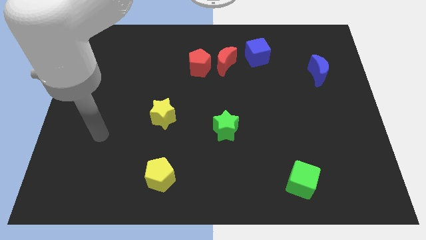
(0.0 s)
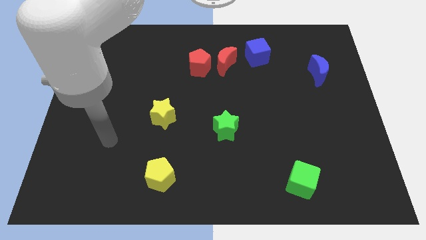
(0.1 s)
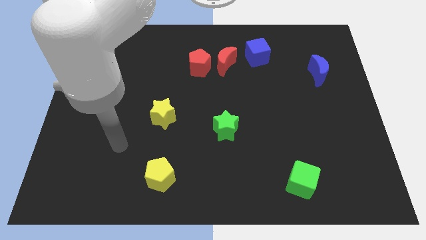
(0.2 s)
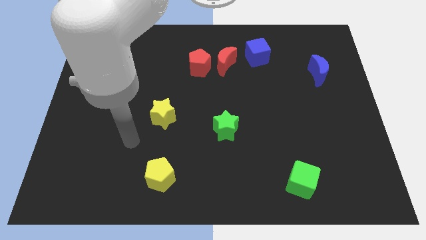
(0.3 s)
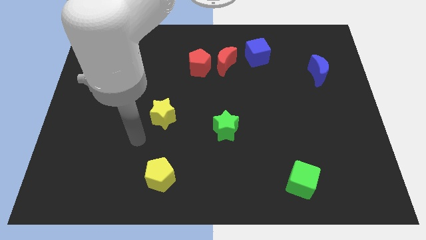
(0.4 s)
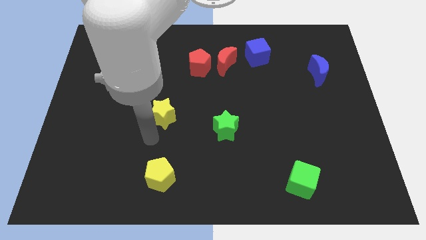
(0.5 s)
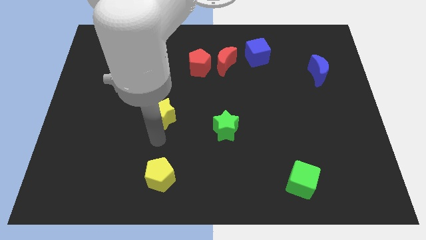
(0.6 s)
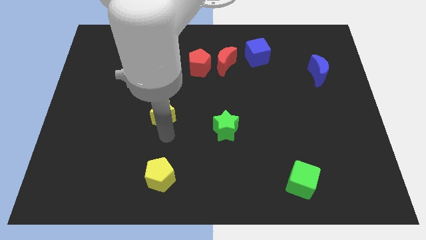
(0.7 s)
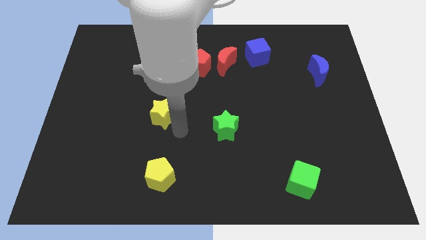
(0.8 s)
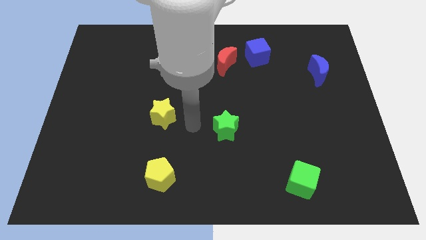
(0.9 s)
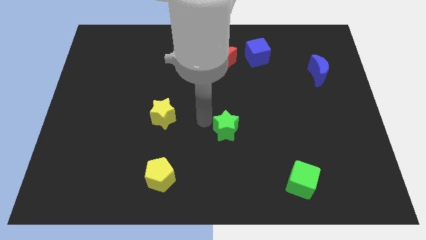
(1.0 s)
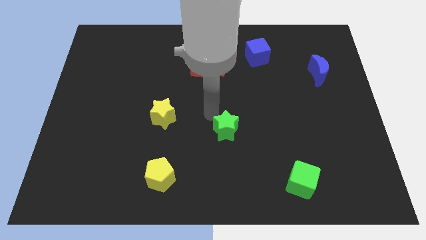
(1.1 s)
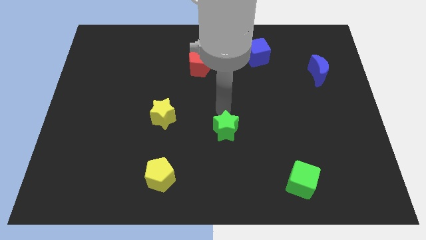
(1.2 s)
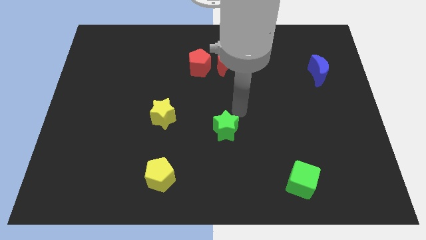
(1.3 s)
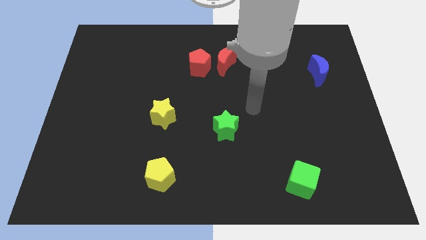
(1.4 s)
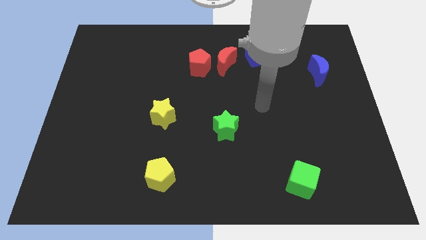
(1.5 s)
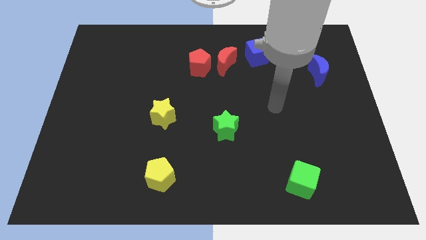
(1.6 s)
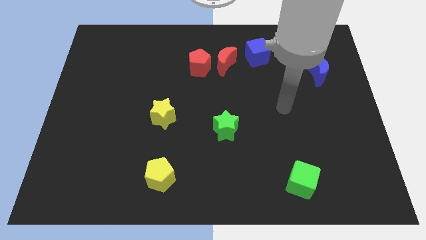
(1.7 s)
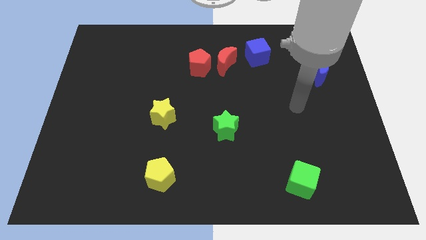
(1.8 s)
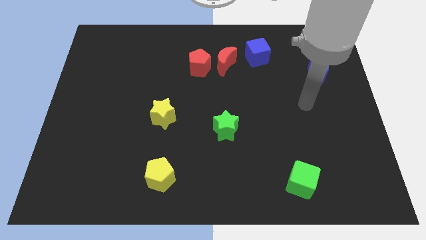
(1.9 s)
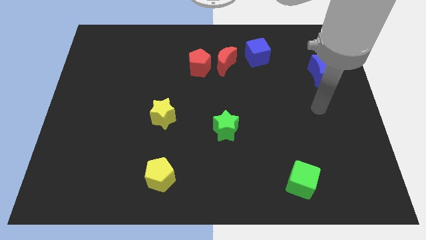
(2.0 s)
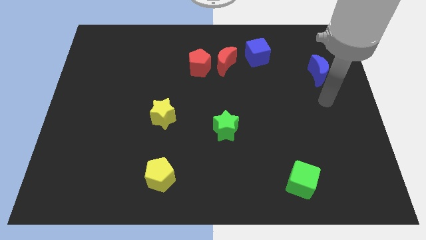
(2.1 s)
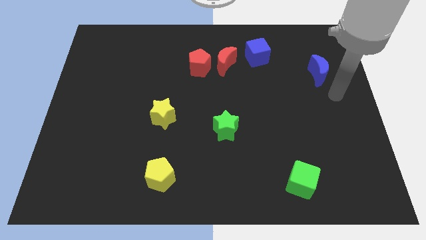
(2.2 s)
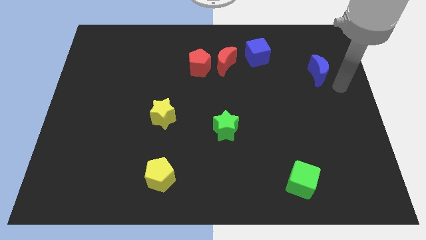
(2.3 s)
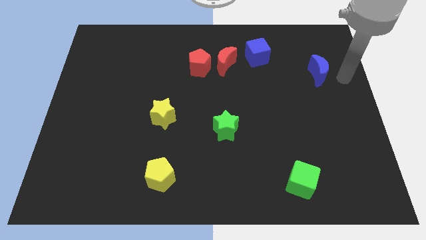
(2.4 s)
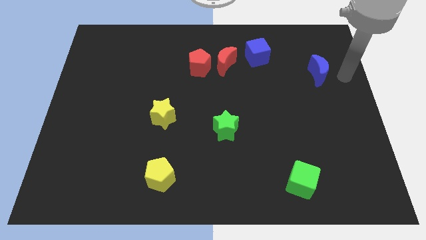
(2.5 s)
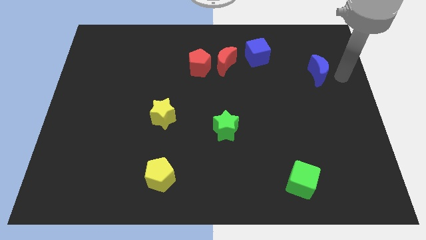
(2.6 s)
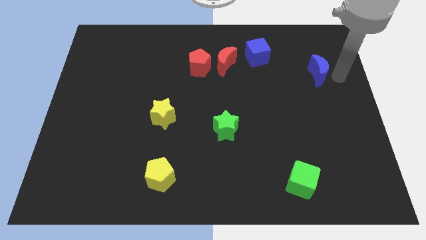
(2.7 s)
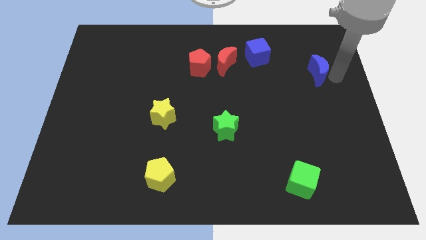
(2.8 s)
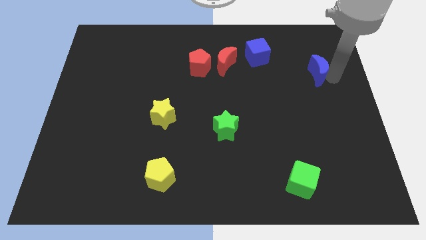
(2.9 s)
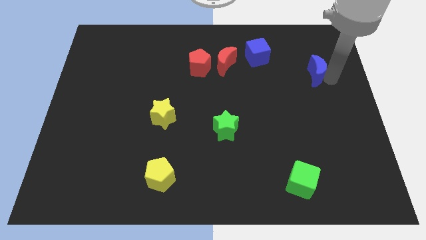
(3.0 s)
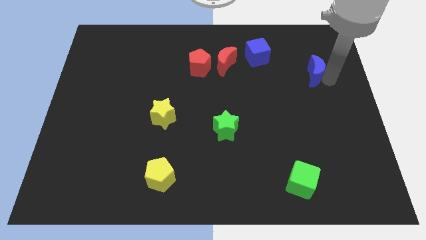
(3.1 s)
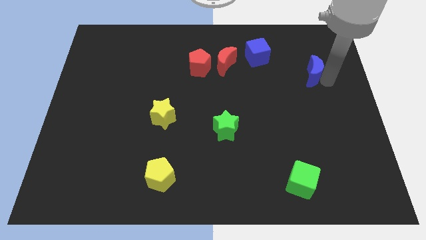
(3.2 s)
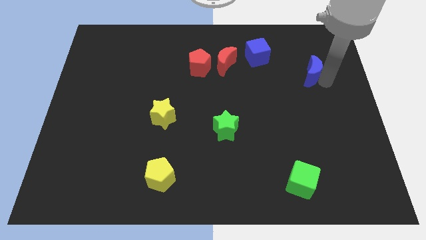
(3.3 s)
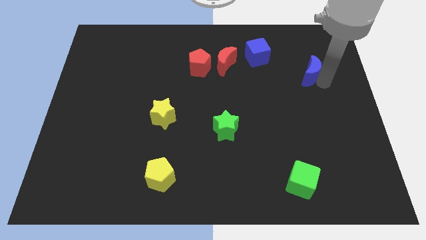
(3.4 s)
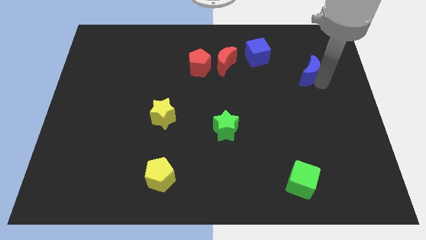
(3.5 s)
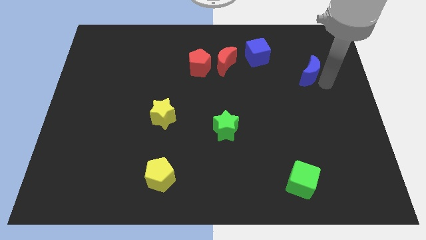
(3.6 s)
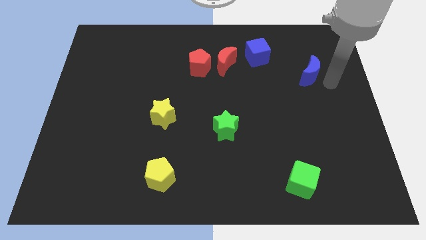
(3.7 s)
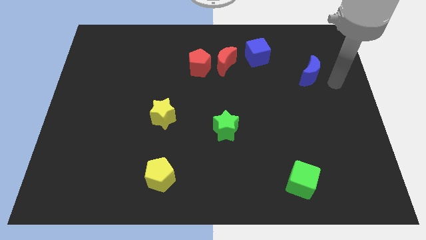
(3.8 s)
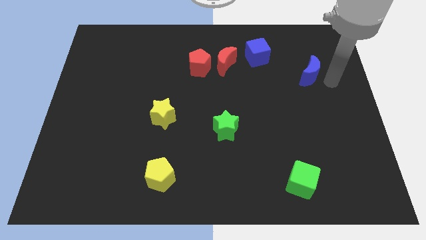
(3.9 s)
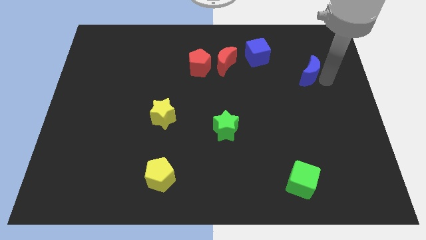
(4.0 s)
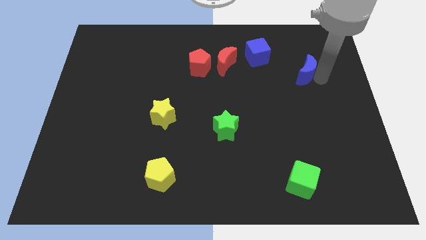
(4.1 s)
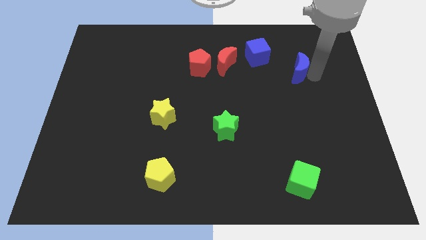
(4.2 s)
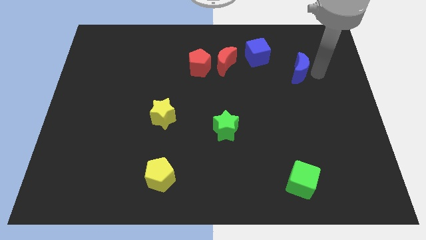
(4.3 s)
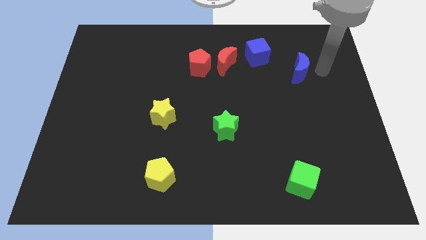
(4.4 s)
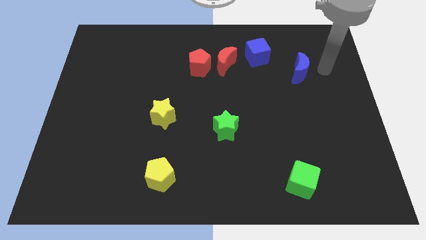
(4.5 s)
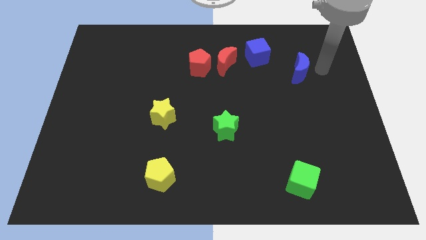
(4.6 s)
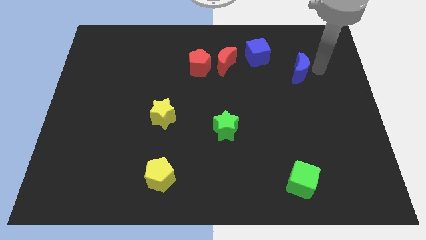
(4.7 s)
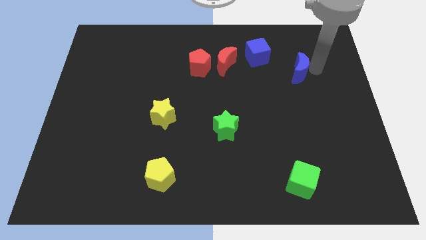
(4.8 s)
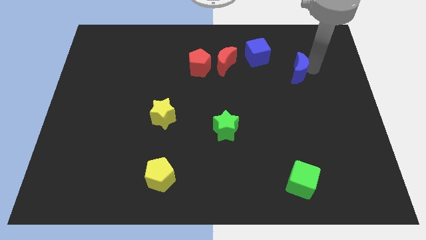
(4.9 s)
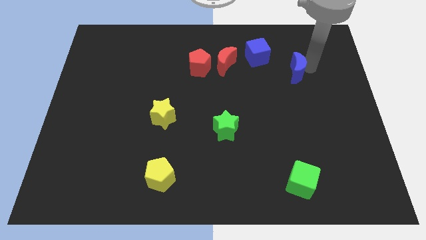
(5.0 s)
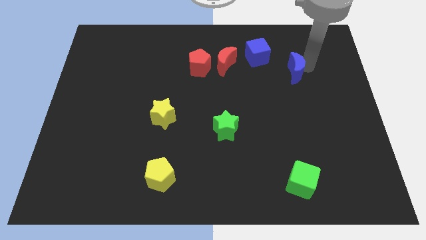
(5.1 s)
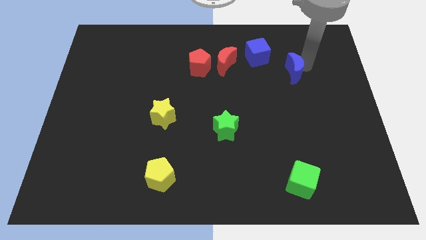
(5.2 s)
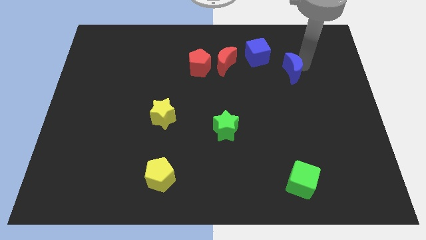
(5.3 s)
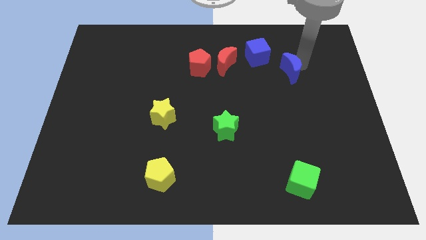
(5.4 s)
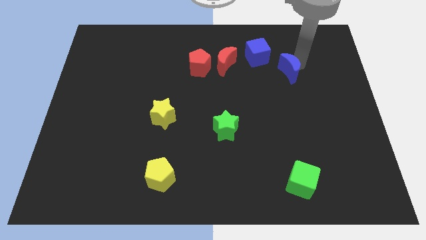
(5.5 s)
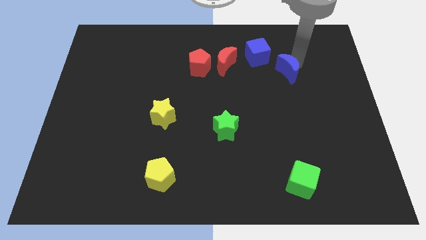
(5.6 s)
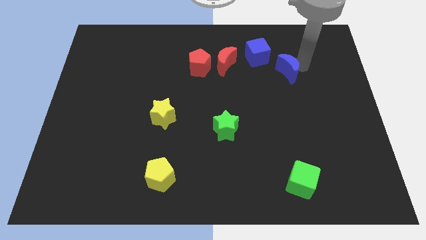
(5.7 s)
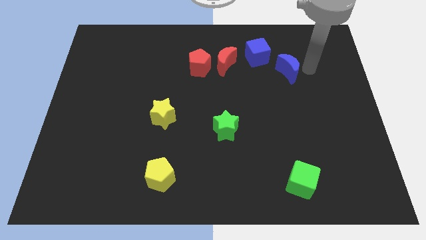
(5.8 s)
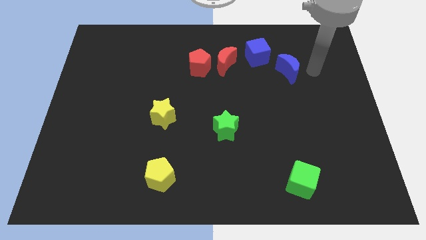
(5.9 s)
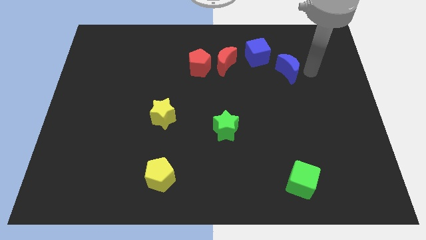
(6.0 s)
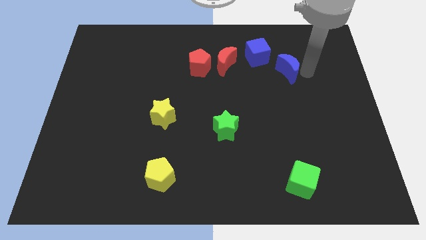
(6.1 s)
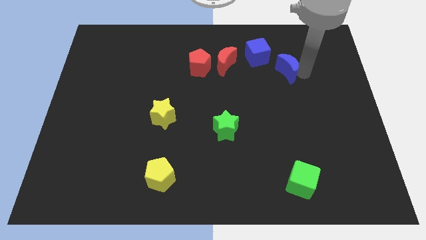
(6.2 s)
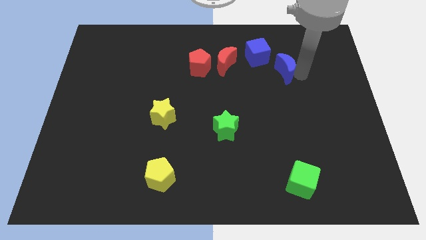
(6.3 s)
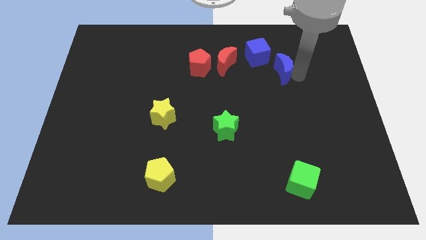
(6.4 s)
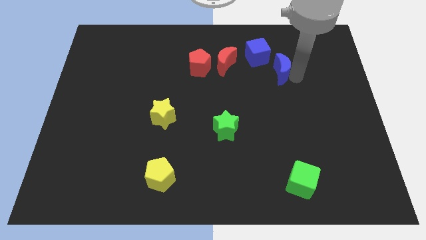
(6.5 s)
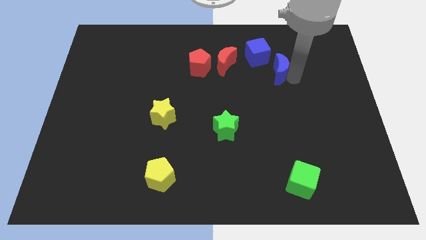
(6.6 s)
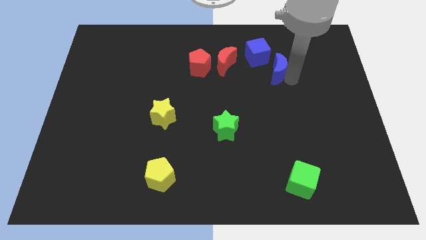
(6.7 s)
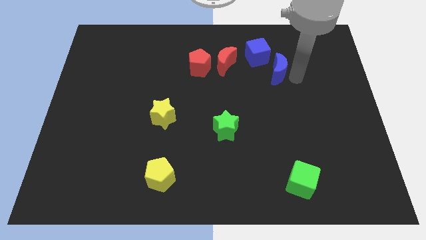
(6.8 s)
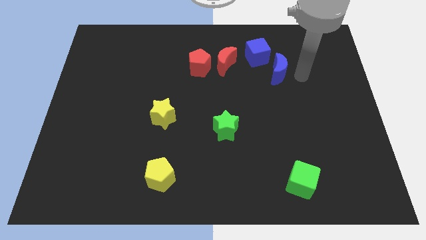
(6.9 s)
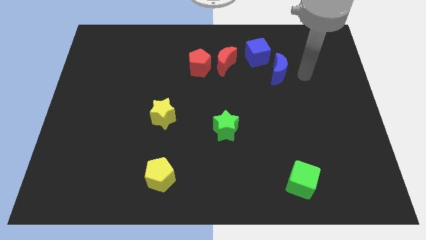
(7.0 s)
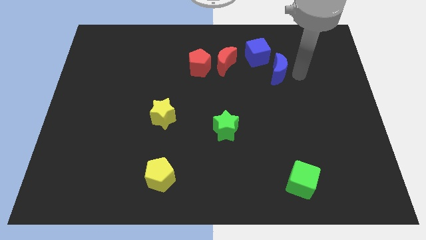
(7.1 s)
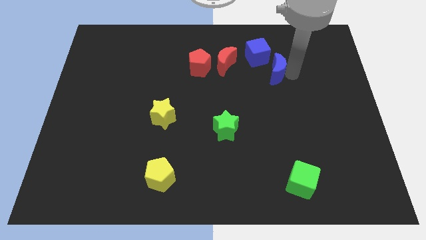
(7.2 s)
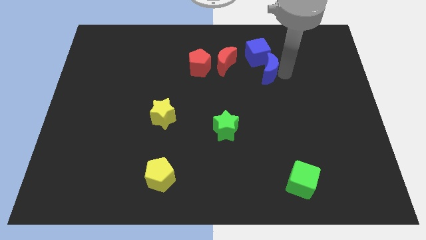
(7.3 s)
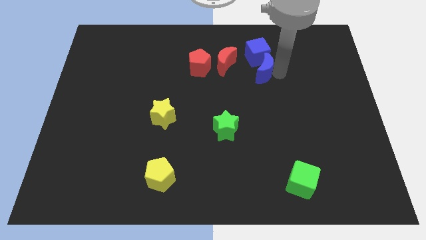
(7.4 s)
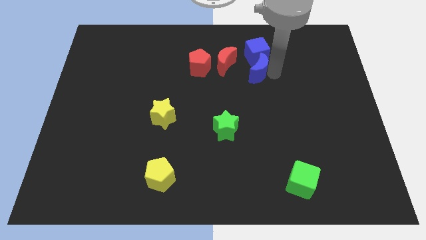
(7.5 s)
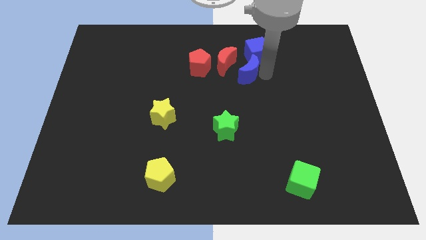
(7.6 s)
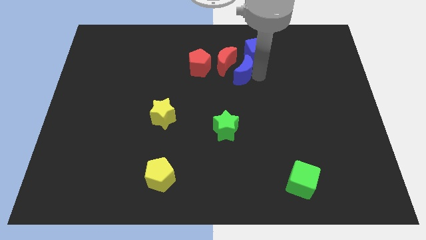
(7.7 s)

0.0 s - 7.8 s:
move the blue moon next to the red moon
